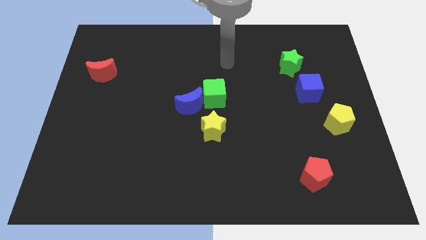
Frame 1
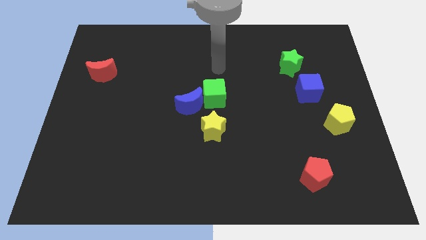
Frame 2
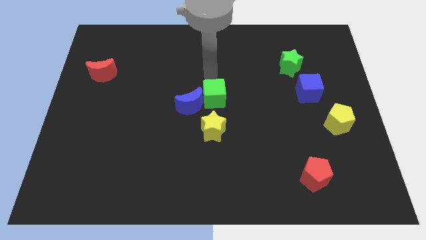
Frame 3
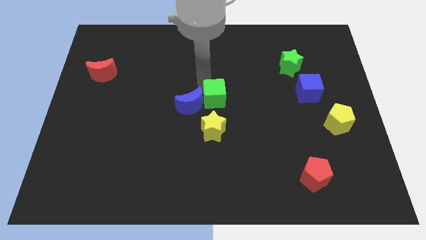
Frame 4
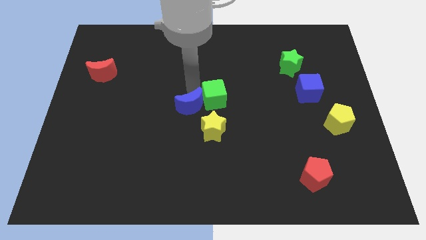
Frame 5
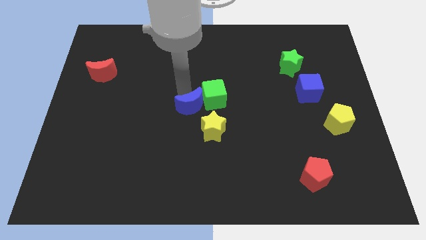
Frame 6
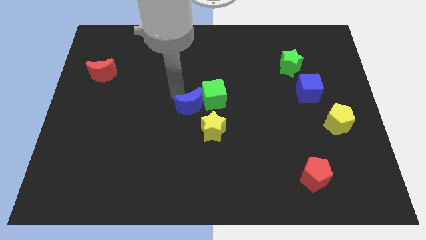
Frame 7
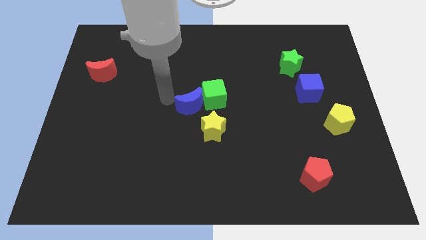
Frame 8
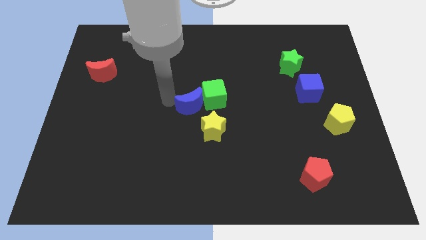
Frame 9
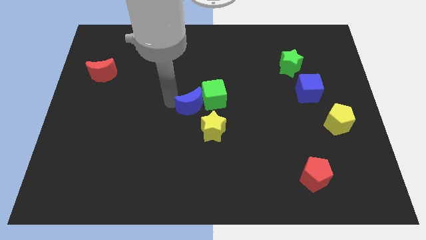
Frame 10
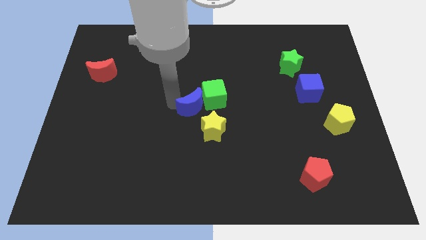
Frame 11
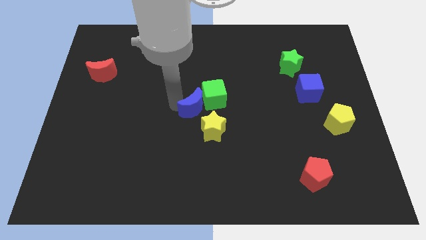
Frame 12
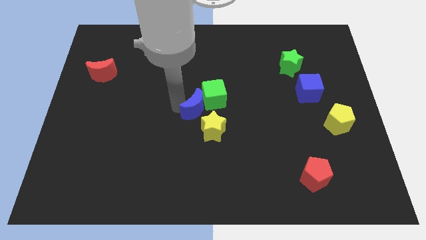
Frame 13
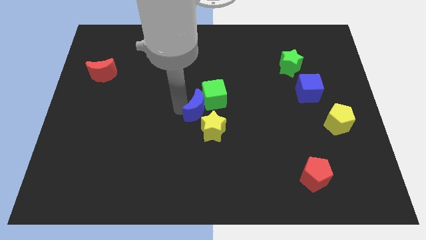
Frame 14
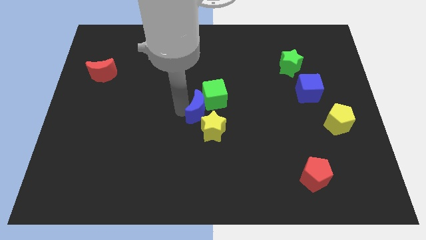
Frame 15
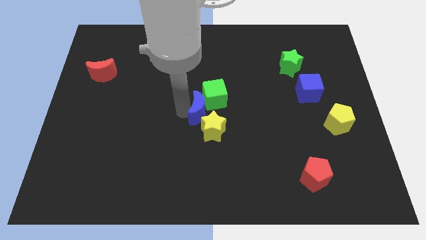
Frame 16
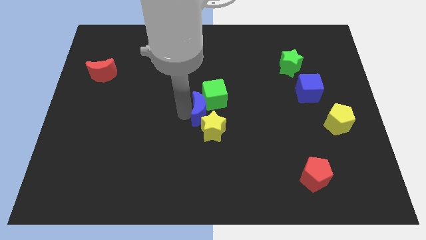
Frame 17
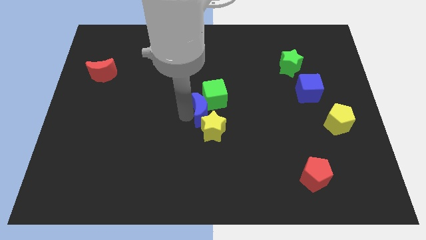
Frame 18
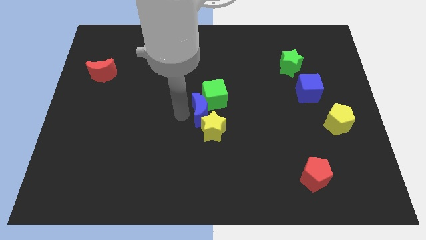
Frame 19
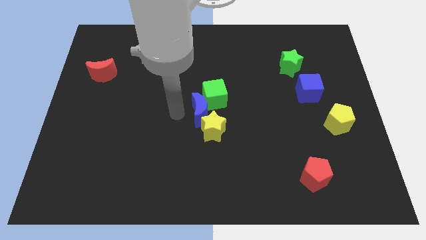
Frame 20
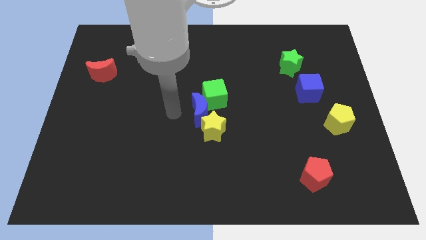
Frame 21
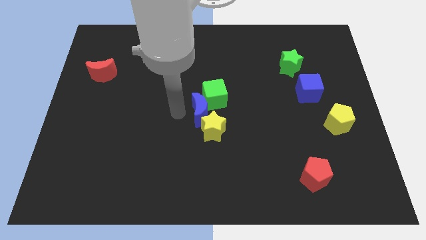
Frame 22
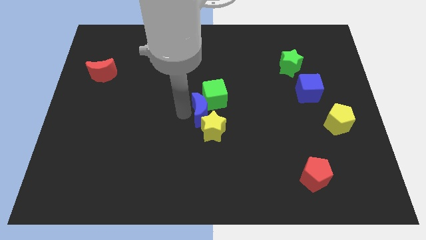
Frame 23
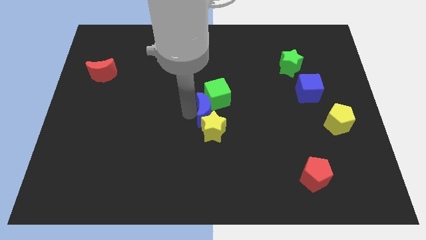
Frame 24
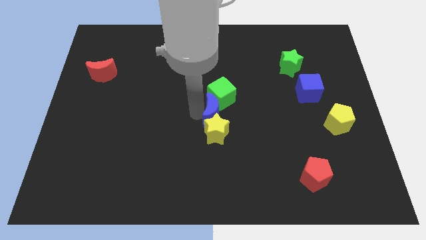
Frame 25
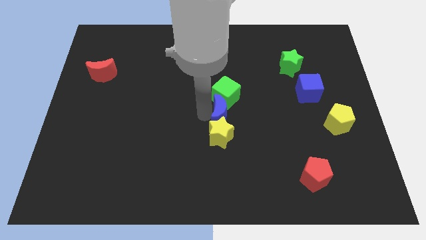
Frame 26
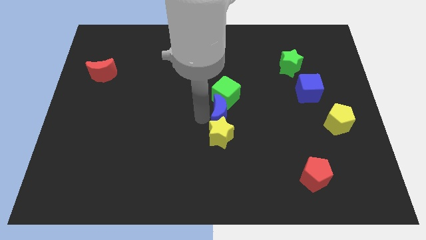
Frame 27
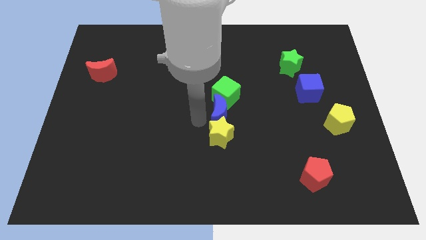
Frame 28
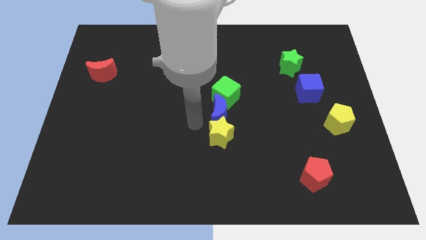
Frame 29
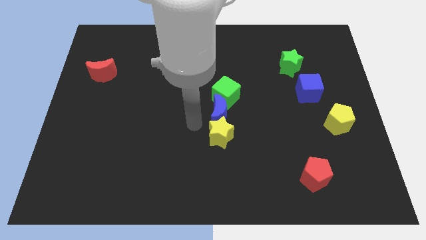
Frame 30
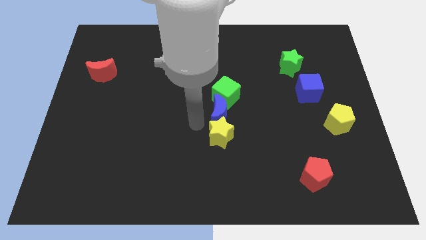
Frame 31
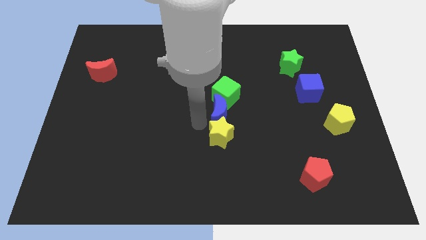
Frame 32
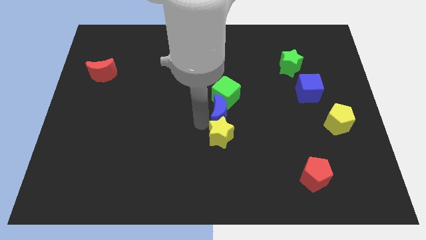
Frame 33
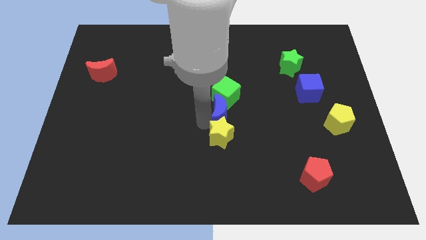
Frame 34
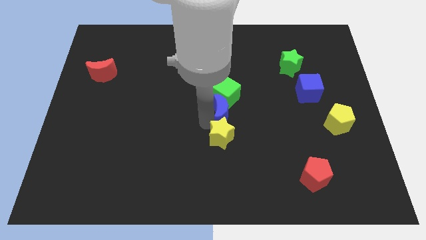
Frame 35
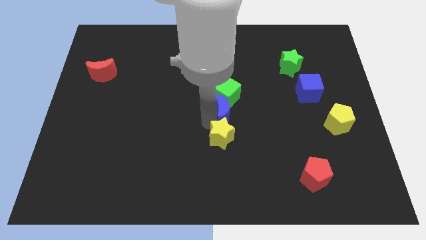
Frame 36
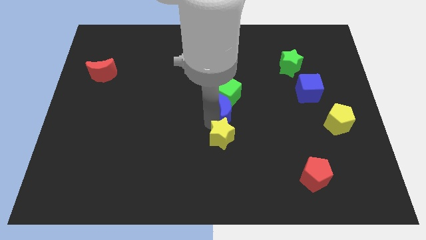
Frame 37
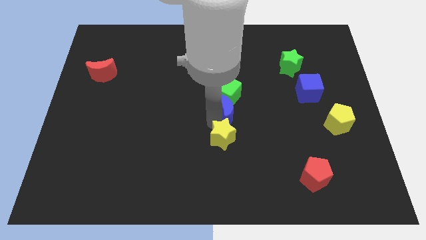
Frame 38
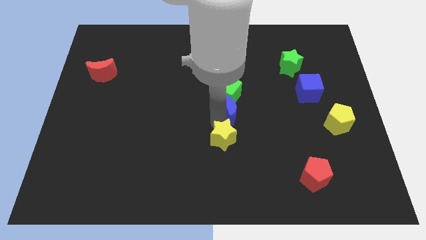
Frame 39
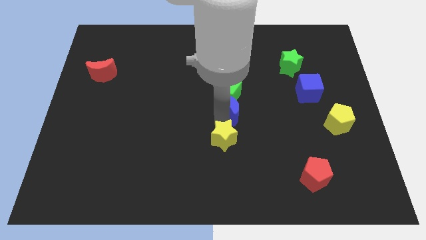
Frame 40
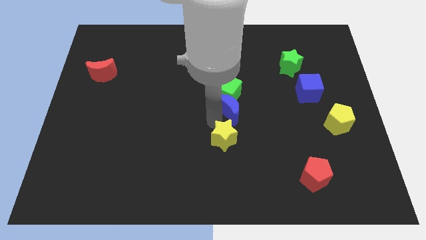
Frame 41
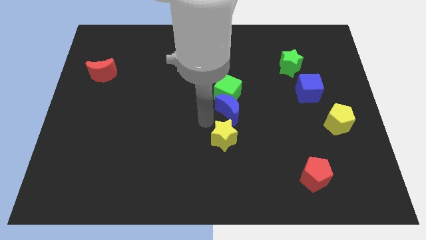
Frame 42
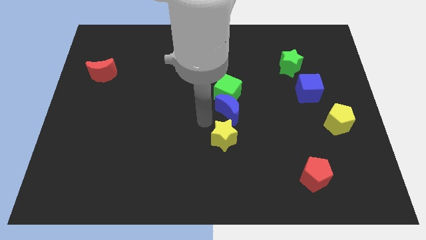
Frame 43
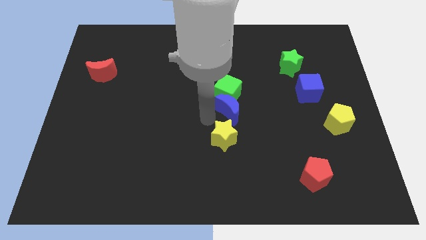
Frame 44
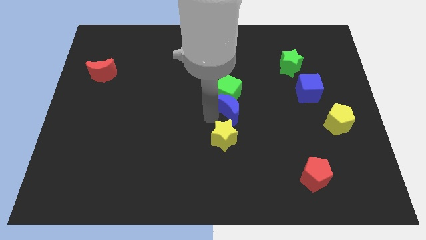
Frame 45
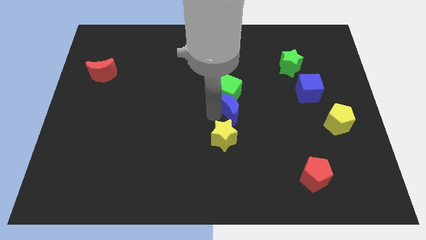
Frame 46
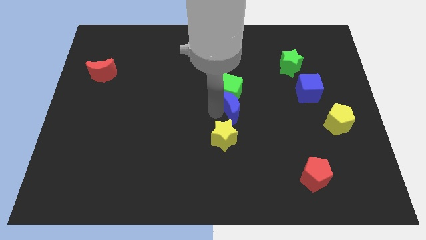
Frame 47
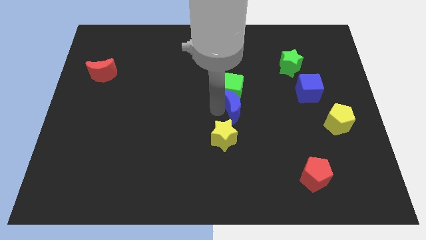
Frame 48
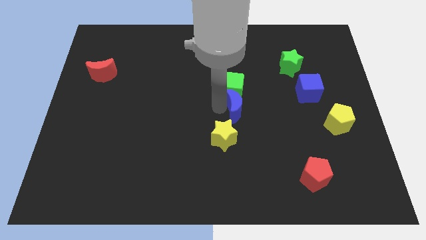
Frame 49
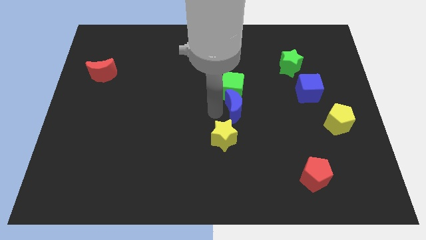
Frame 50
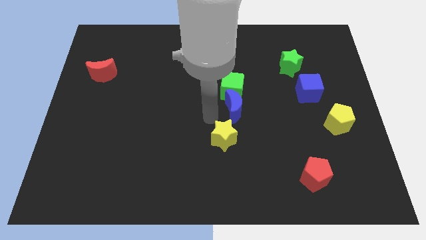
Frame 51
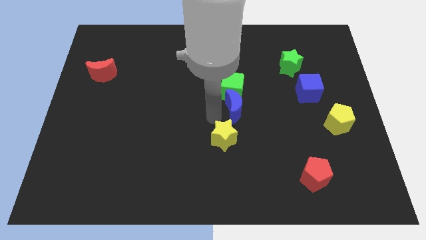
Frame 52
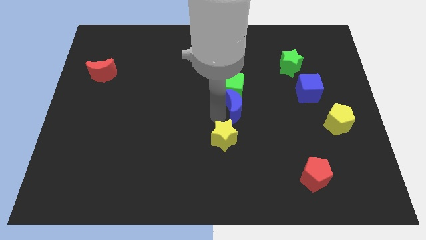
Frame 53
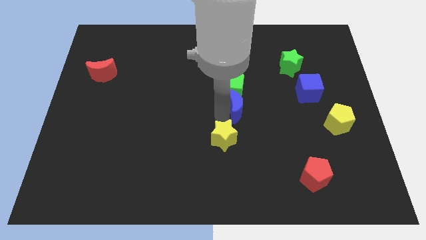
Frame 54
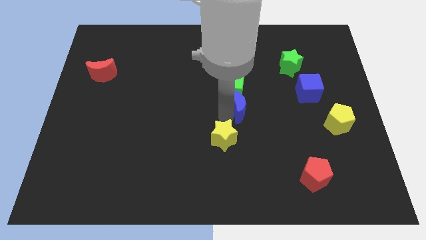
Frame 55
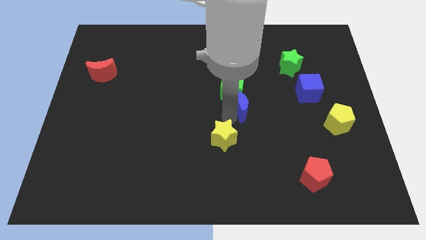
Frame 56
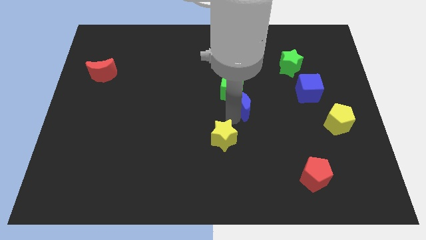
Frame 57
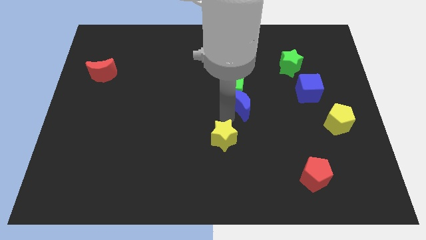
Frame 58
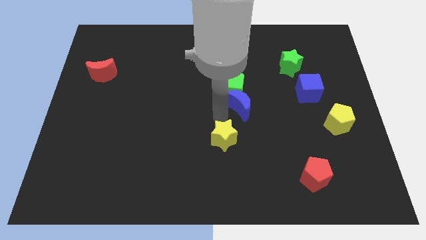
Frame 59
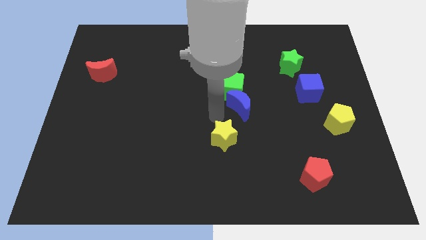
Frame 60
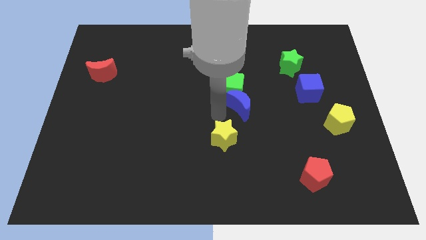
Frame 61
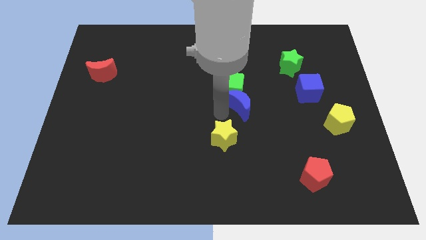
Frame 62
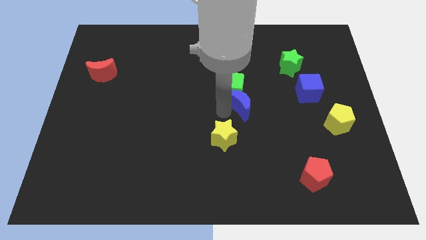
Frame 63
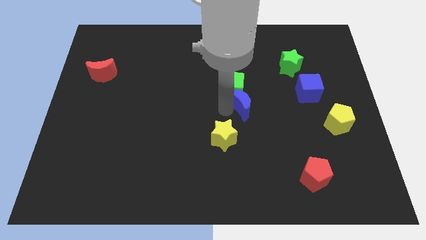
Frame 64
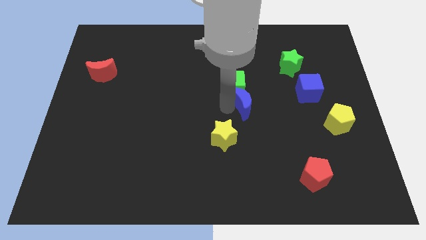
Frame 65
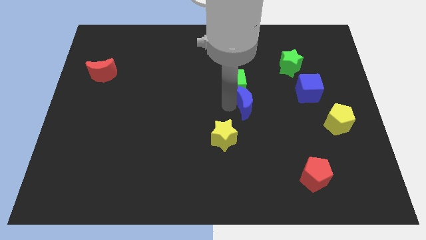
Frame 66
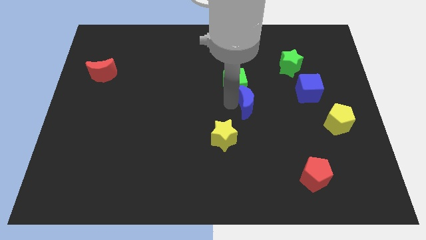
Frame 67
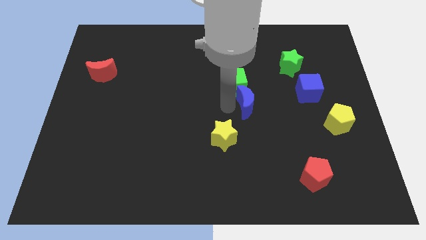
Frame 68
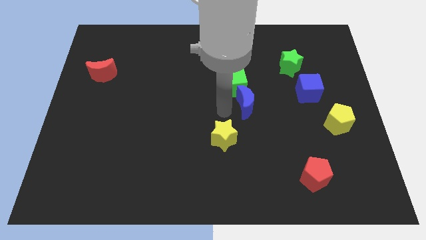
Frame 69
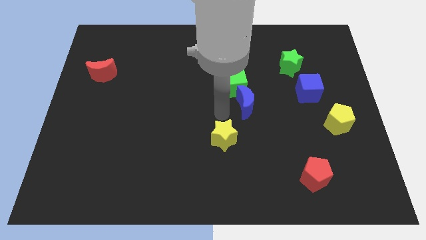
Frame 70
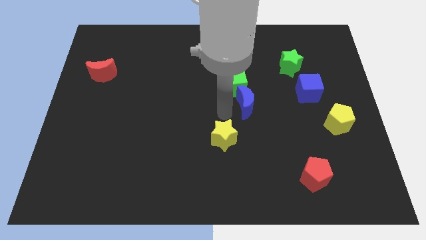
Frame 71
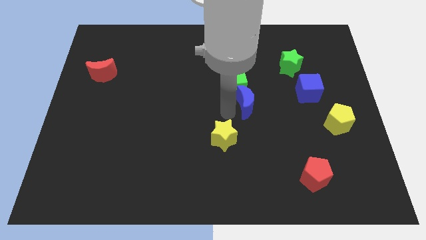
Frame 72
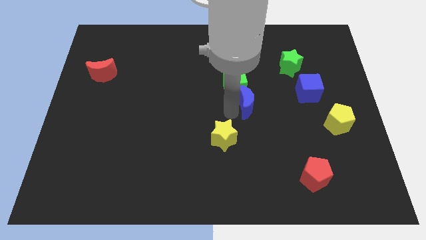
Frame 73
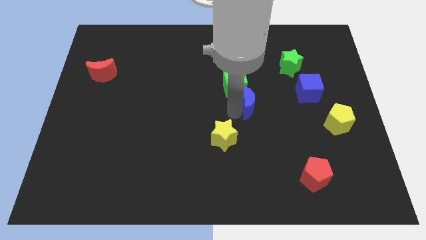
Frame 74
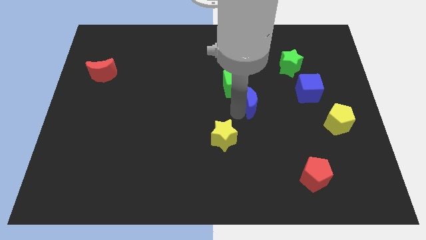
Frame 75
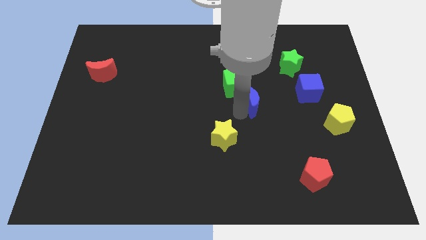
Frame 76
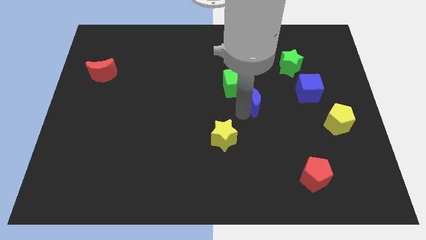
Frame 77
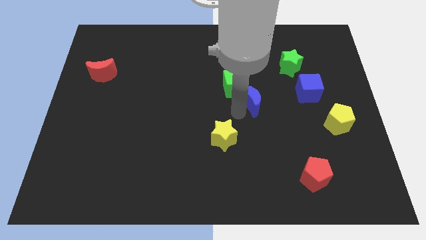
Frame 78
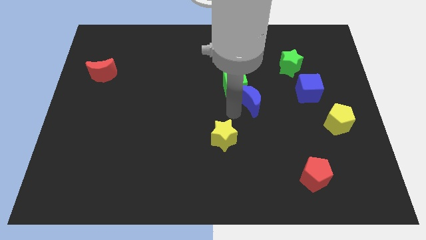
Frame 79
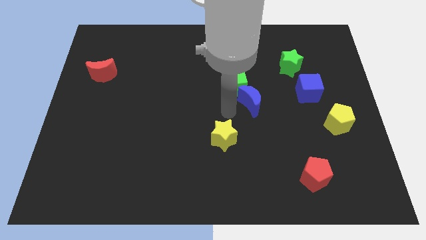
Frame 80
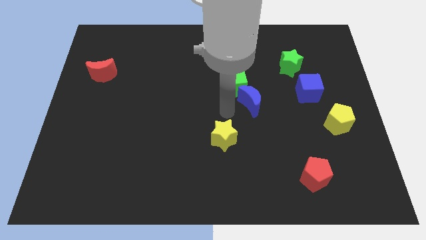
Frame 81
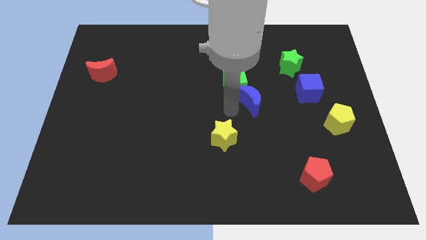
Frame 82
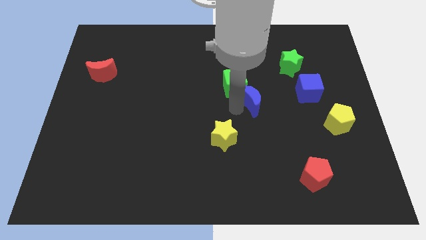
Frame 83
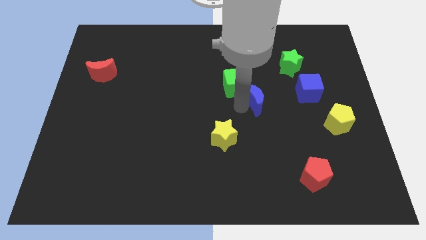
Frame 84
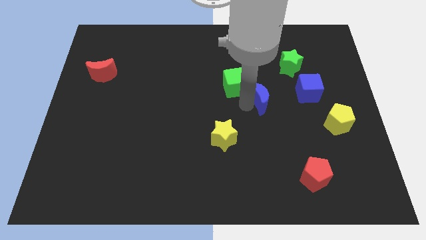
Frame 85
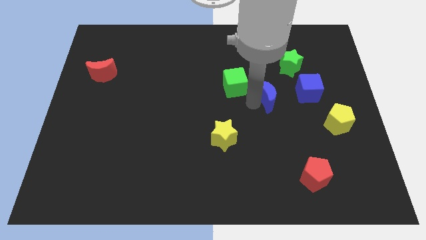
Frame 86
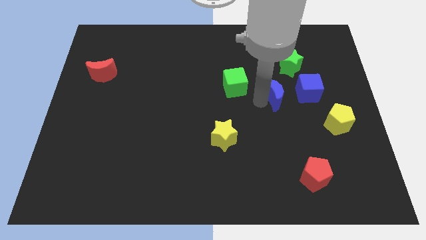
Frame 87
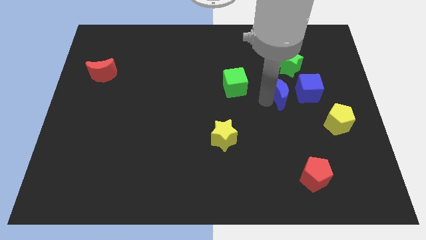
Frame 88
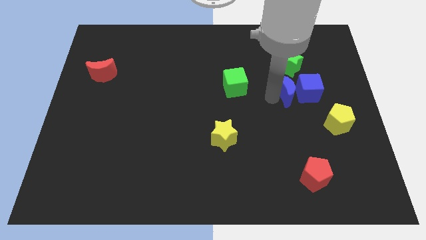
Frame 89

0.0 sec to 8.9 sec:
slide the blue moon next to the blue cube
